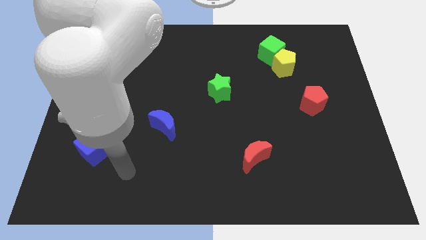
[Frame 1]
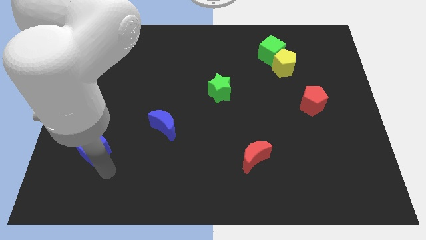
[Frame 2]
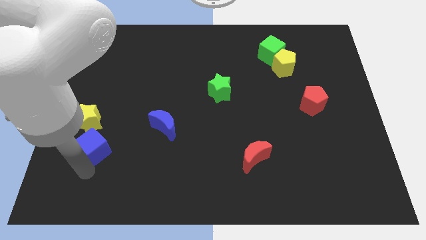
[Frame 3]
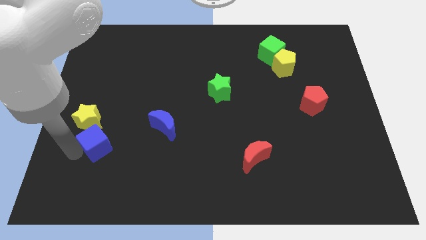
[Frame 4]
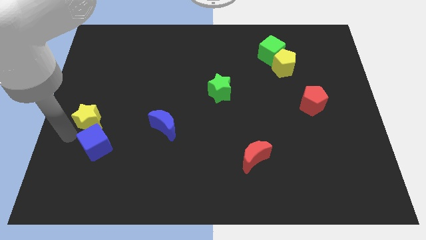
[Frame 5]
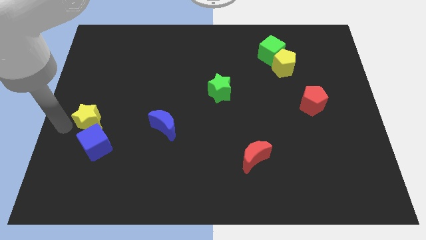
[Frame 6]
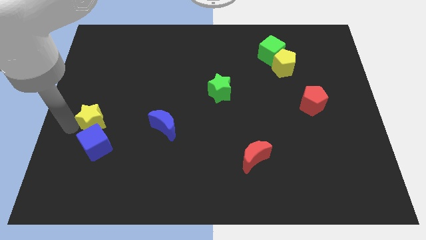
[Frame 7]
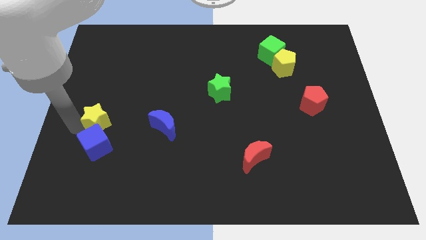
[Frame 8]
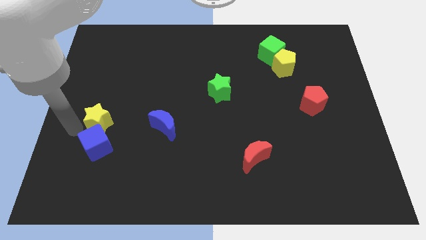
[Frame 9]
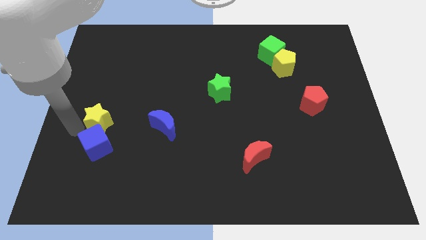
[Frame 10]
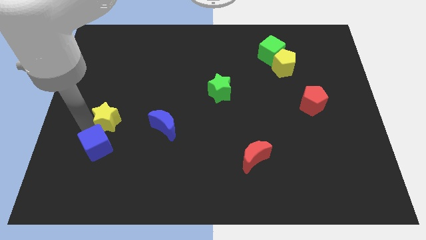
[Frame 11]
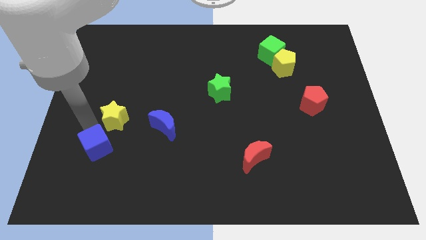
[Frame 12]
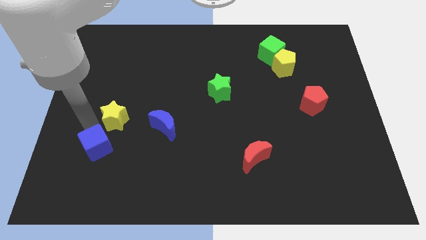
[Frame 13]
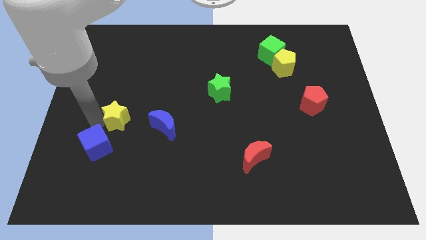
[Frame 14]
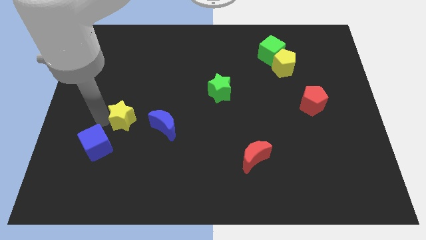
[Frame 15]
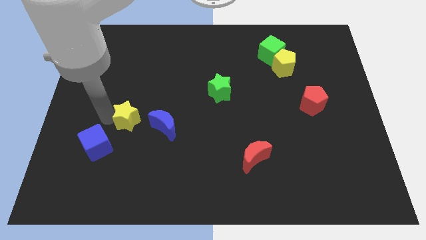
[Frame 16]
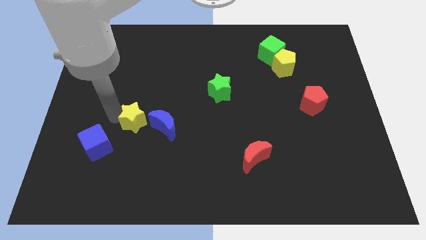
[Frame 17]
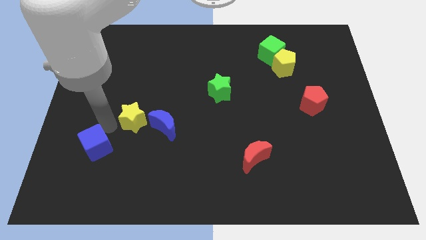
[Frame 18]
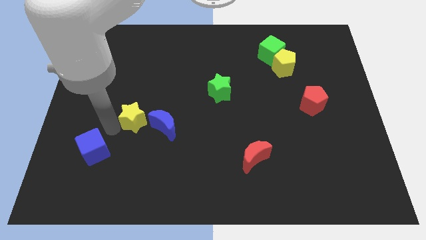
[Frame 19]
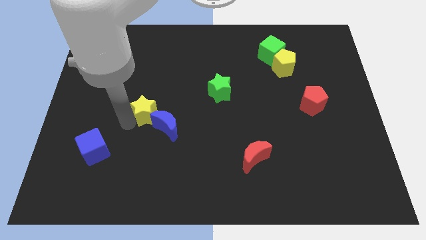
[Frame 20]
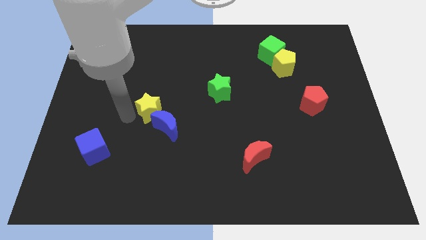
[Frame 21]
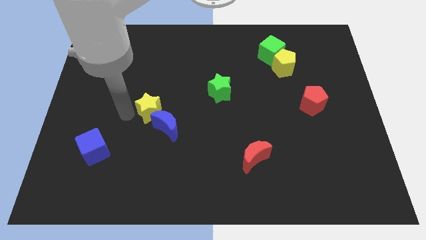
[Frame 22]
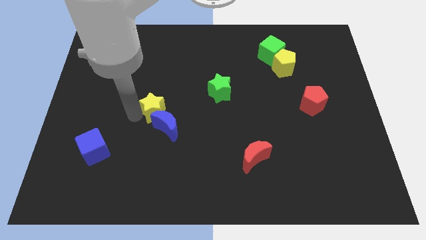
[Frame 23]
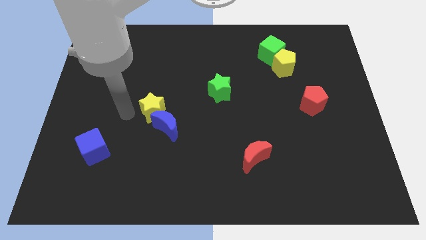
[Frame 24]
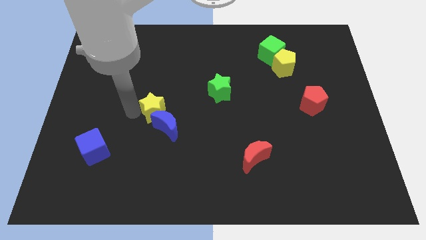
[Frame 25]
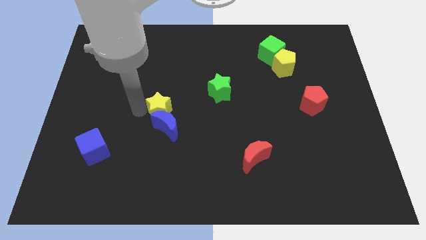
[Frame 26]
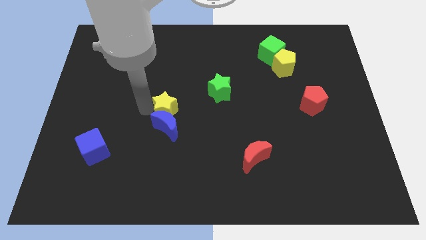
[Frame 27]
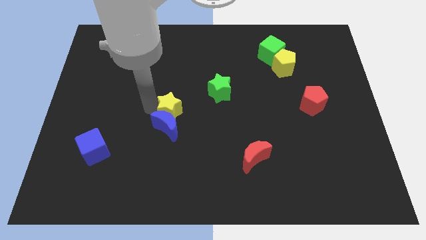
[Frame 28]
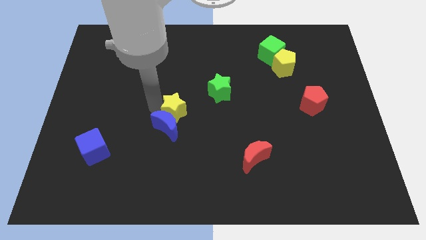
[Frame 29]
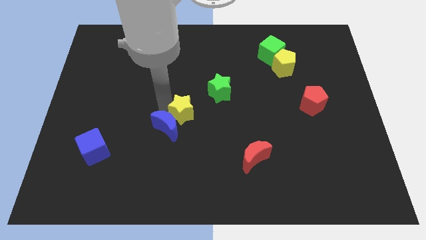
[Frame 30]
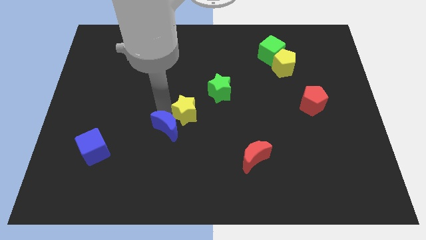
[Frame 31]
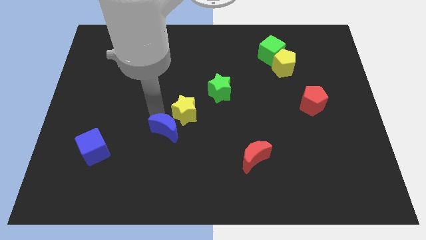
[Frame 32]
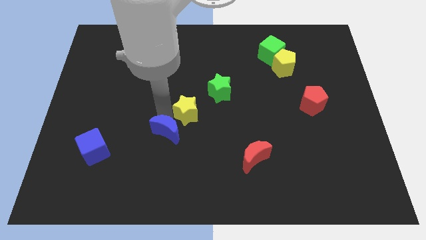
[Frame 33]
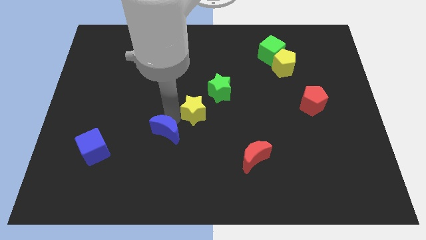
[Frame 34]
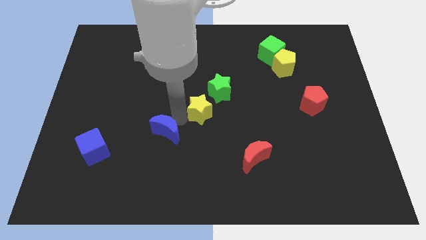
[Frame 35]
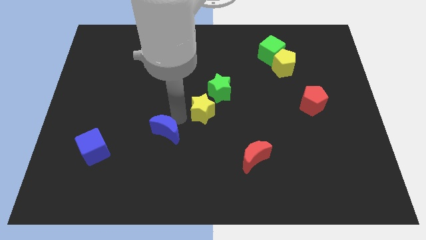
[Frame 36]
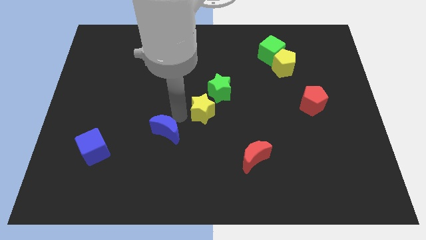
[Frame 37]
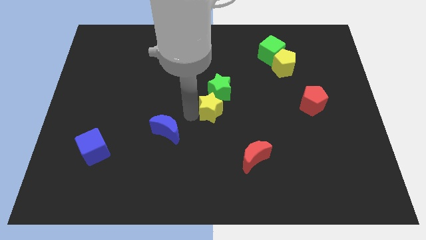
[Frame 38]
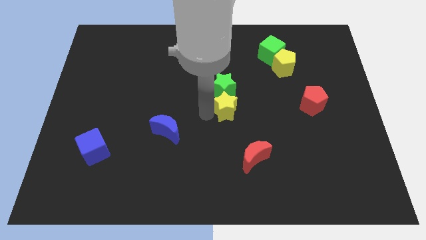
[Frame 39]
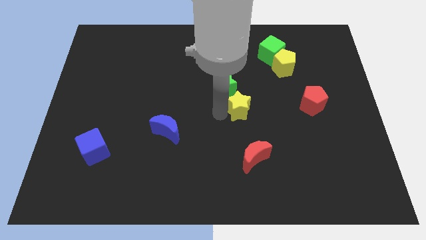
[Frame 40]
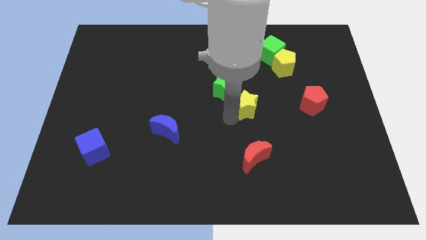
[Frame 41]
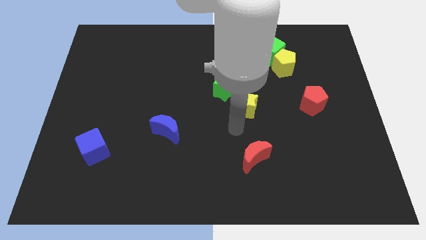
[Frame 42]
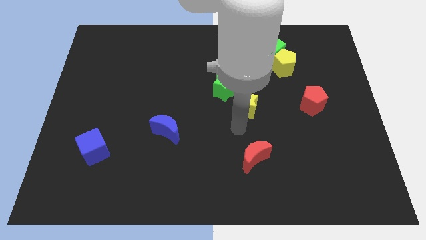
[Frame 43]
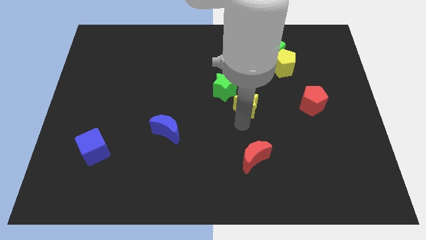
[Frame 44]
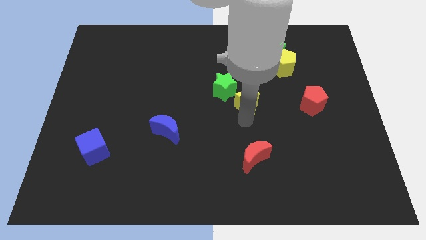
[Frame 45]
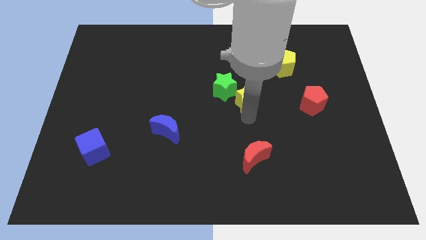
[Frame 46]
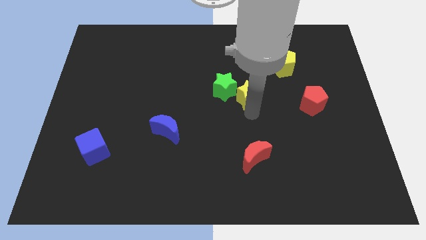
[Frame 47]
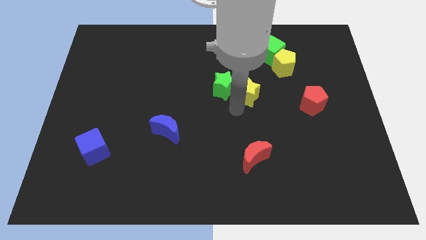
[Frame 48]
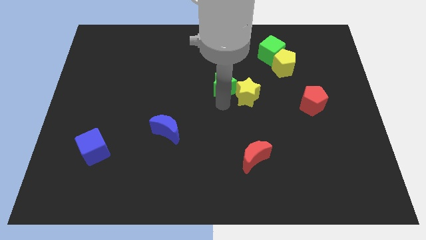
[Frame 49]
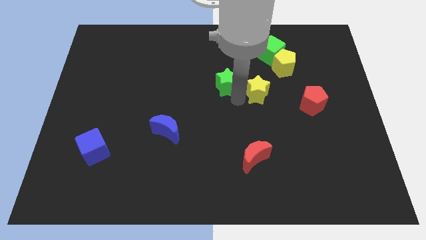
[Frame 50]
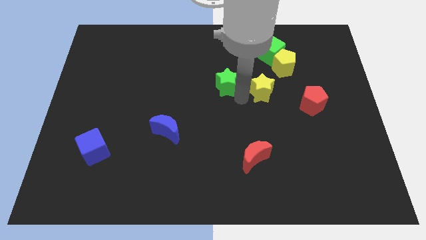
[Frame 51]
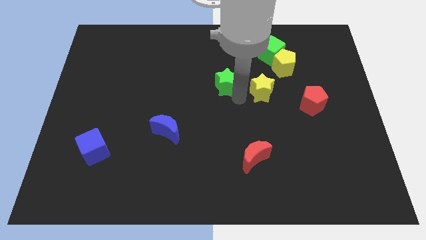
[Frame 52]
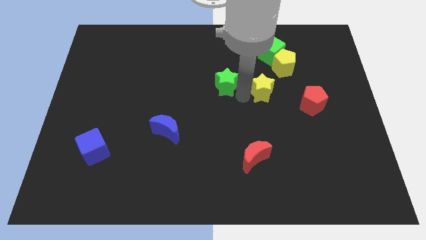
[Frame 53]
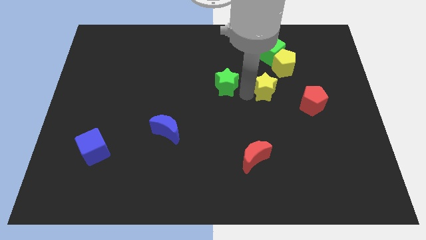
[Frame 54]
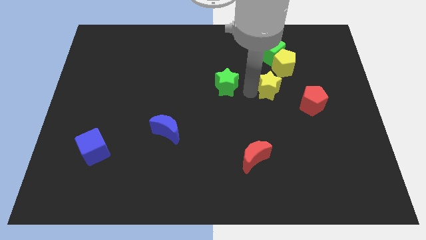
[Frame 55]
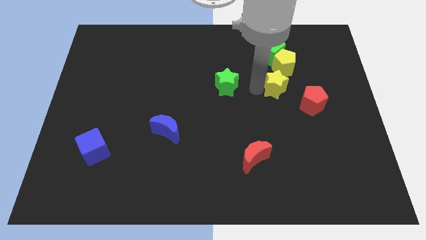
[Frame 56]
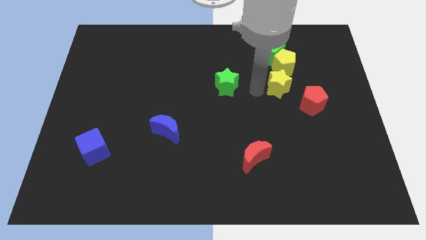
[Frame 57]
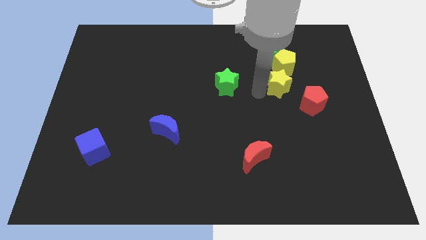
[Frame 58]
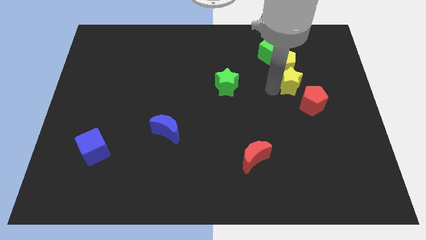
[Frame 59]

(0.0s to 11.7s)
slide the yellow star diagonally down and to the right of the yellow pentagon
